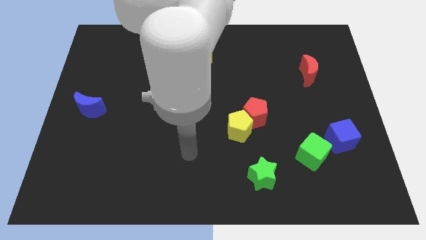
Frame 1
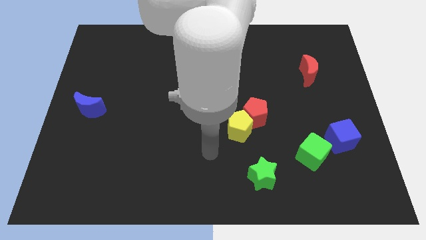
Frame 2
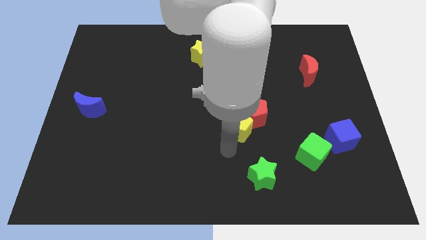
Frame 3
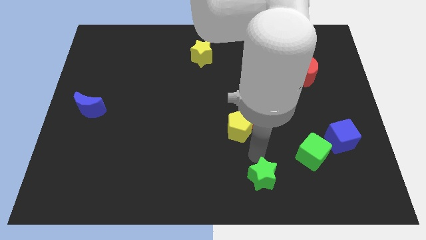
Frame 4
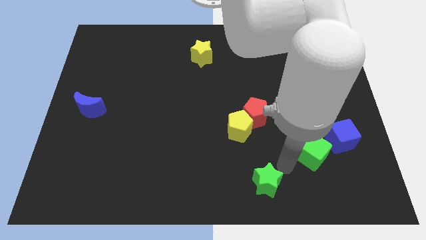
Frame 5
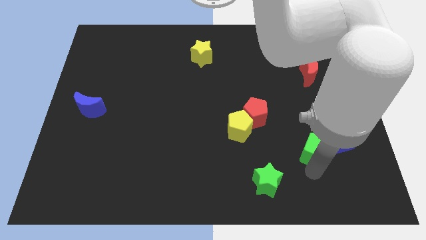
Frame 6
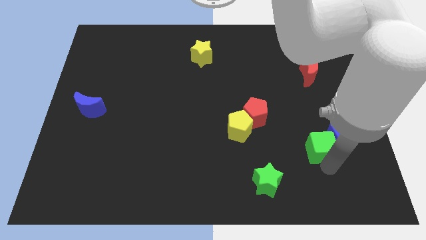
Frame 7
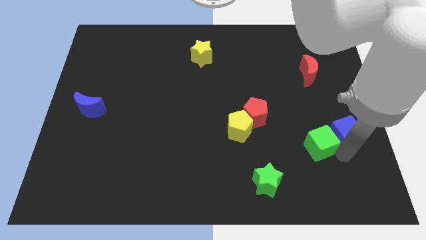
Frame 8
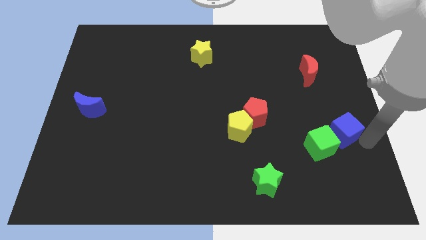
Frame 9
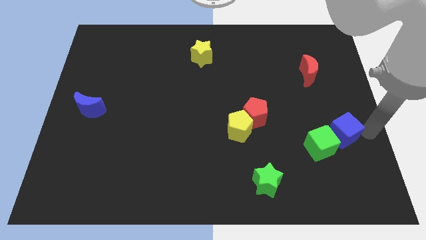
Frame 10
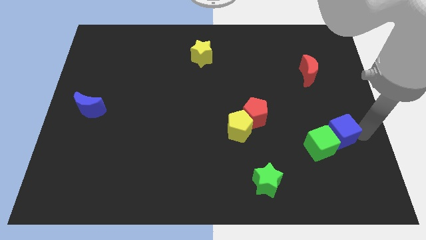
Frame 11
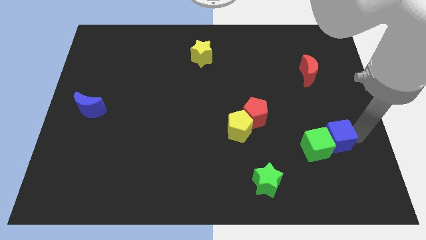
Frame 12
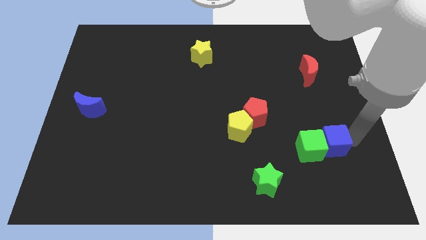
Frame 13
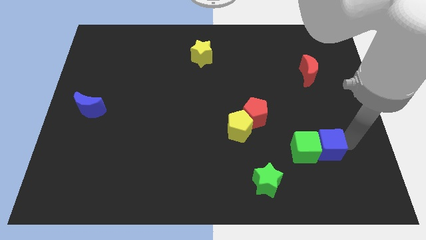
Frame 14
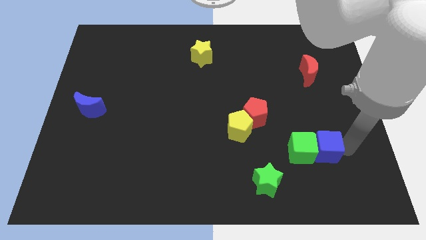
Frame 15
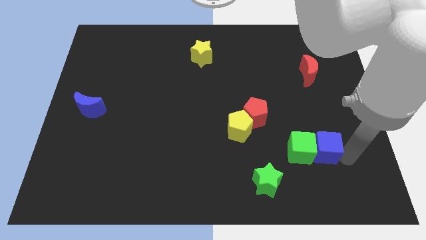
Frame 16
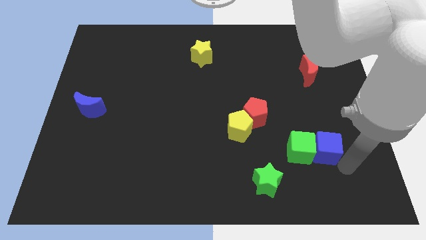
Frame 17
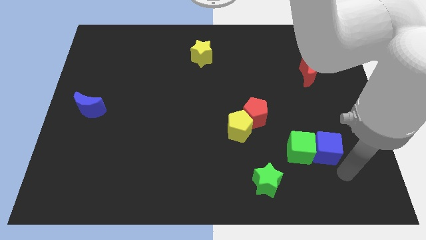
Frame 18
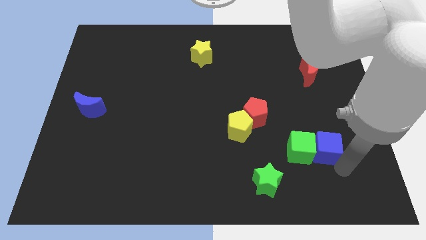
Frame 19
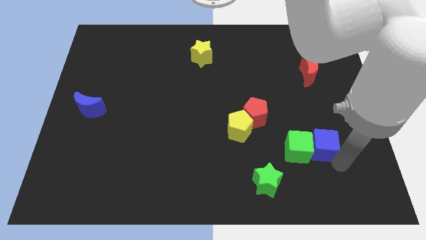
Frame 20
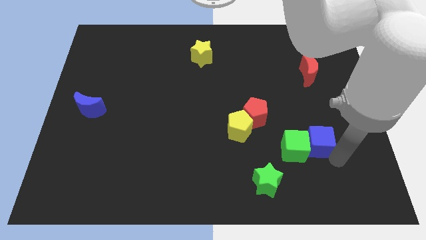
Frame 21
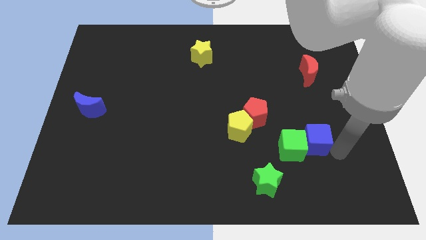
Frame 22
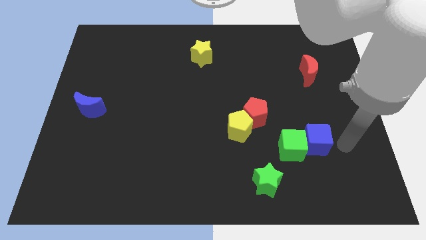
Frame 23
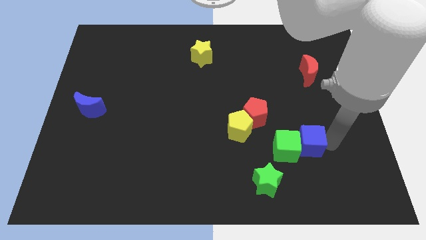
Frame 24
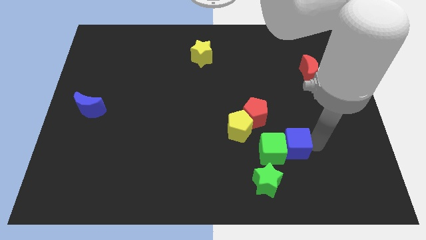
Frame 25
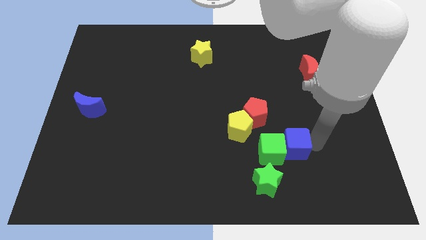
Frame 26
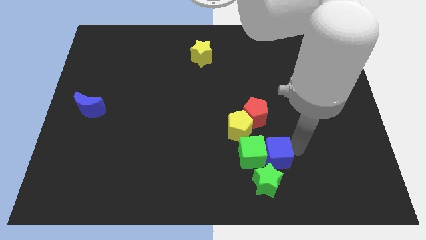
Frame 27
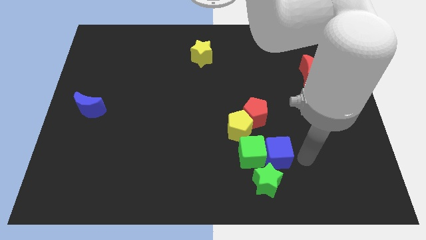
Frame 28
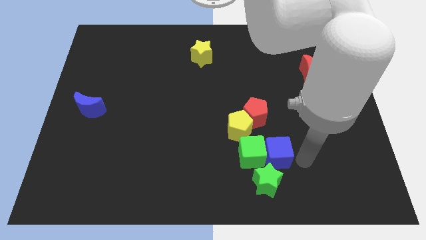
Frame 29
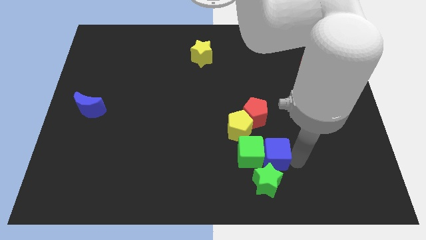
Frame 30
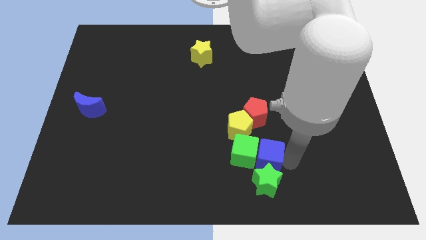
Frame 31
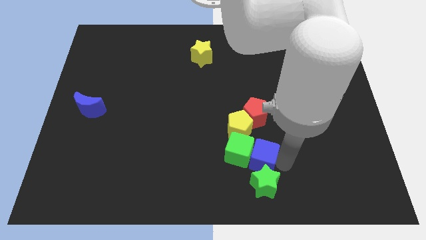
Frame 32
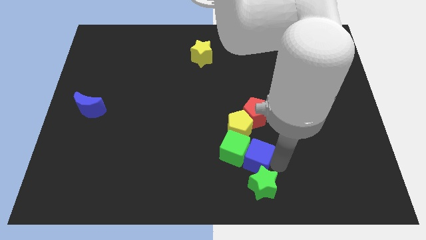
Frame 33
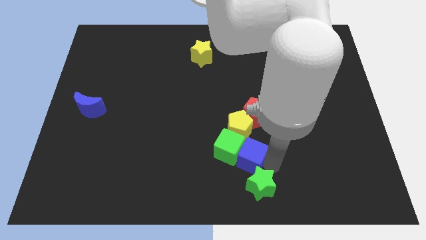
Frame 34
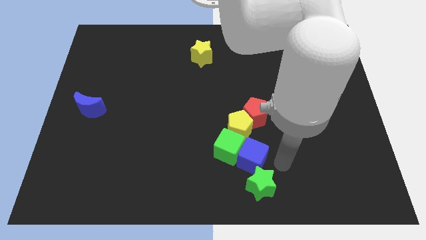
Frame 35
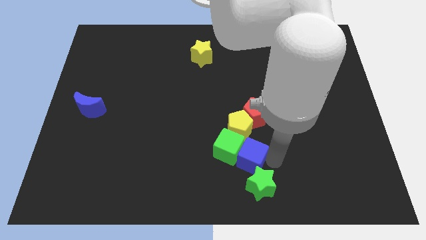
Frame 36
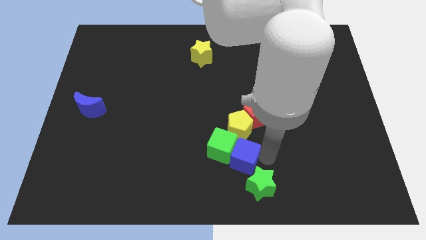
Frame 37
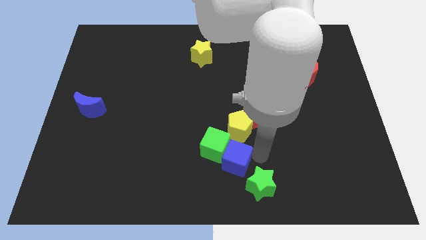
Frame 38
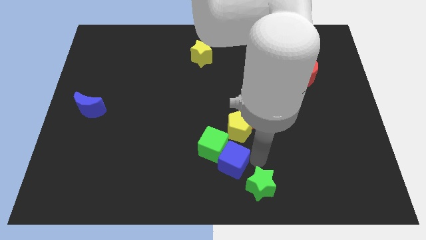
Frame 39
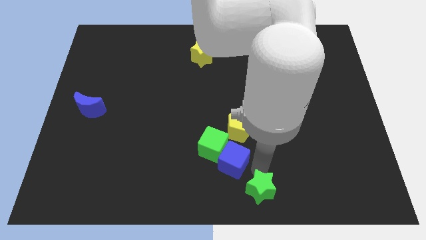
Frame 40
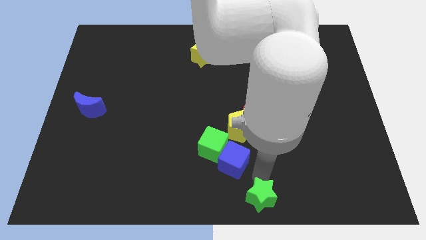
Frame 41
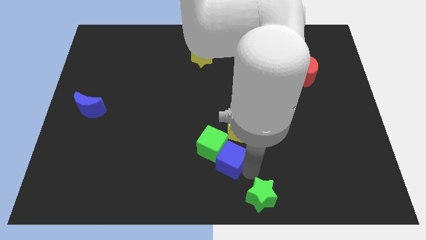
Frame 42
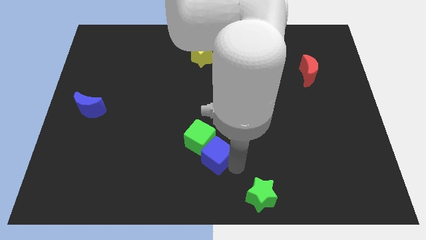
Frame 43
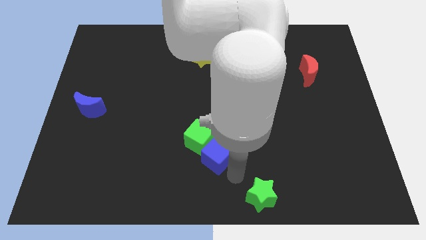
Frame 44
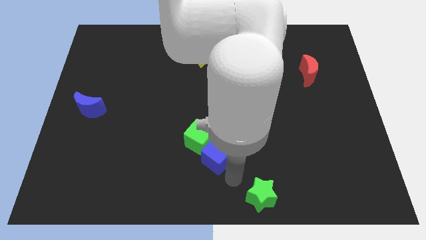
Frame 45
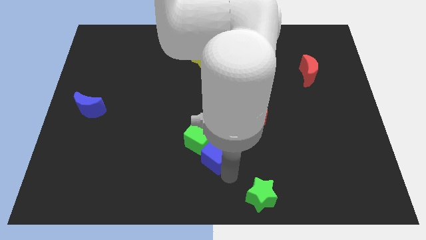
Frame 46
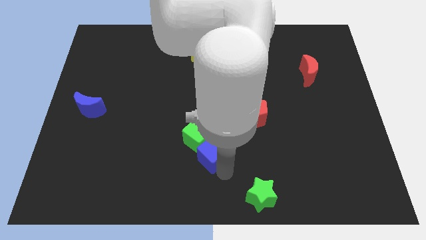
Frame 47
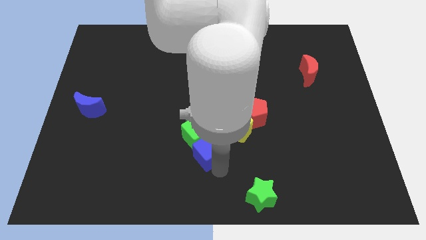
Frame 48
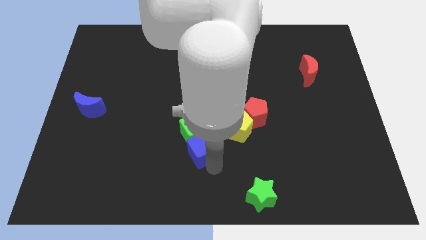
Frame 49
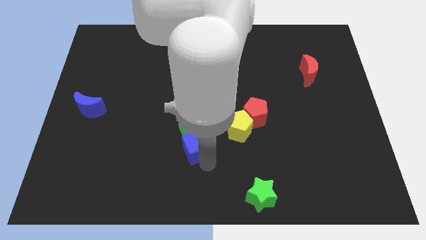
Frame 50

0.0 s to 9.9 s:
move the blue cube to the left side of the yellow pentagon

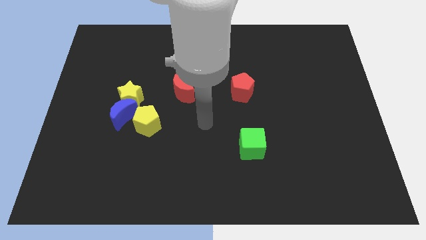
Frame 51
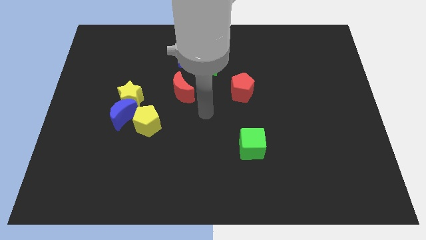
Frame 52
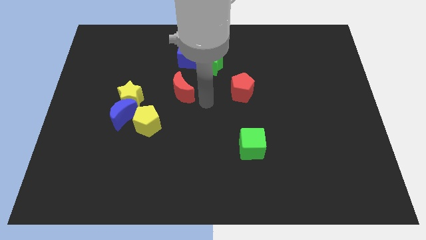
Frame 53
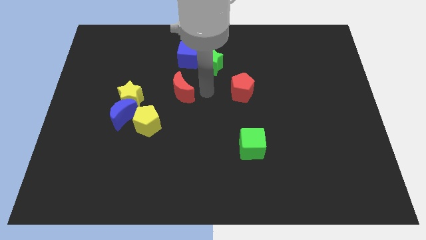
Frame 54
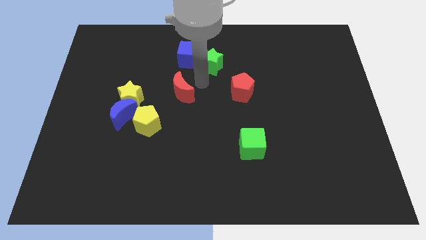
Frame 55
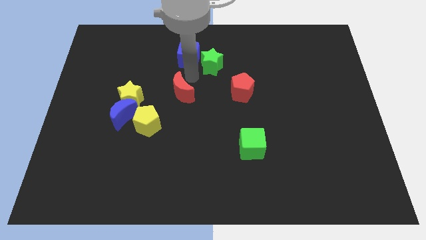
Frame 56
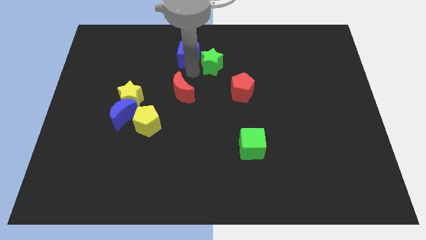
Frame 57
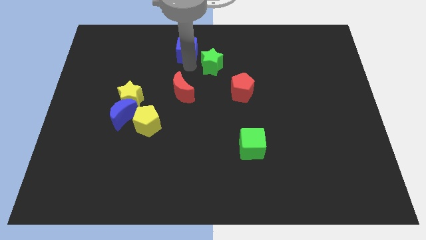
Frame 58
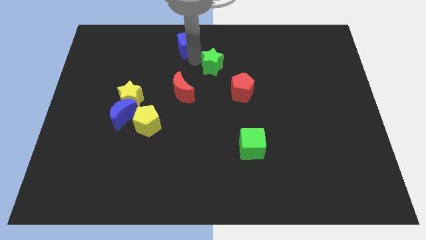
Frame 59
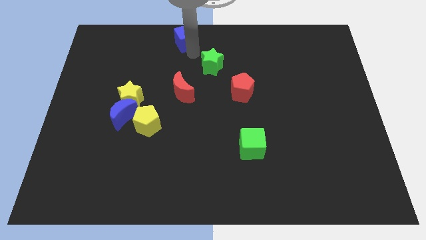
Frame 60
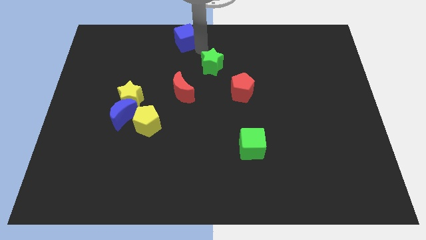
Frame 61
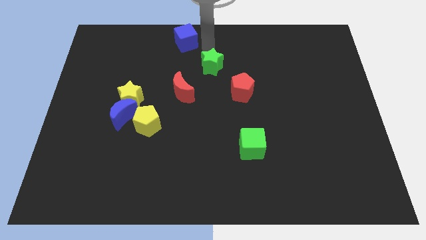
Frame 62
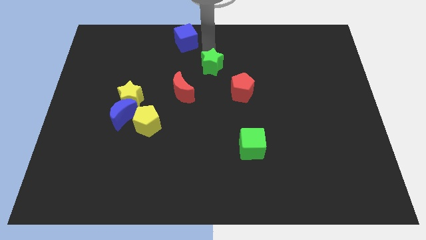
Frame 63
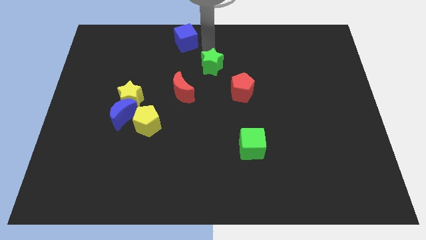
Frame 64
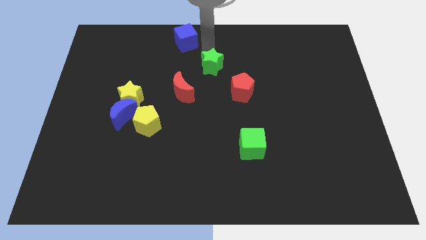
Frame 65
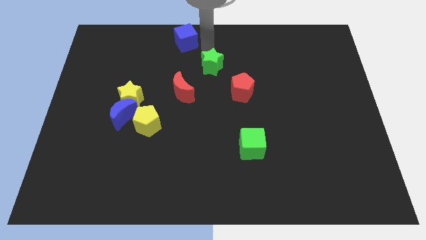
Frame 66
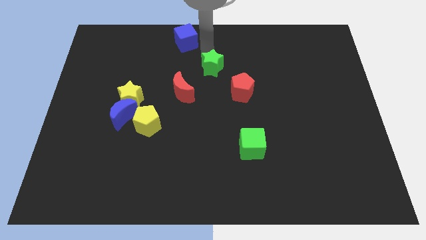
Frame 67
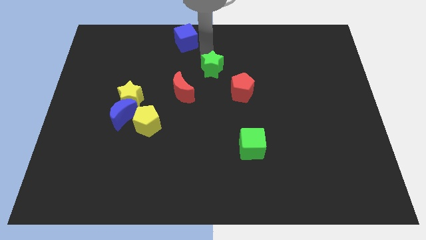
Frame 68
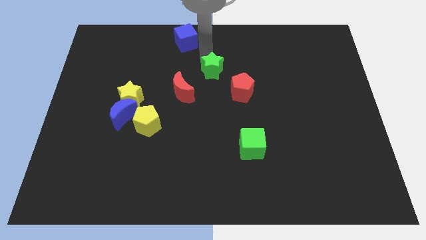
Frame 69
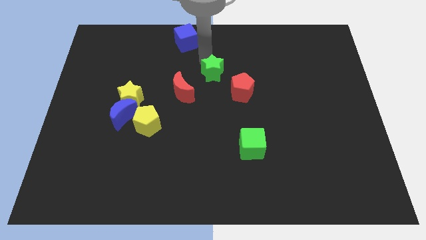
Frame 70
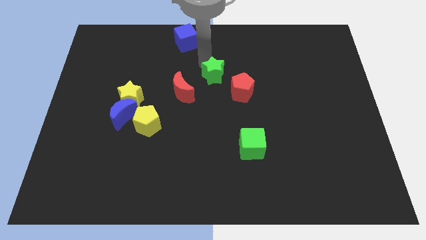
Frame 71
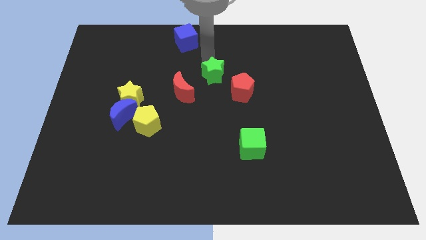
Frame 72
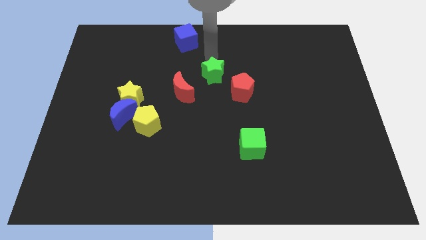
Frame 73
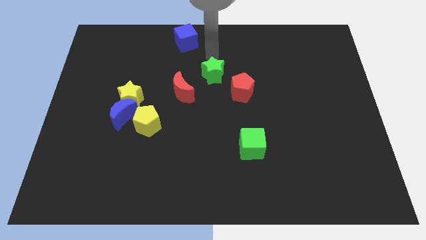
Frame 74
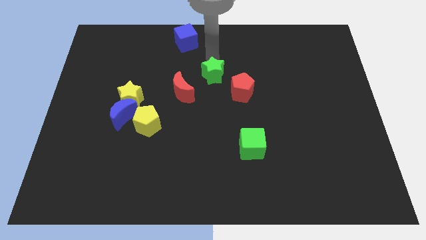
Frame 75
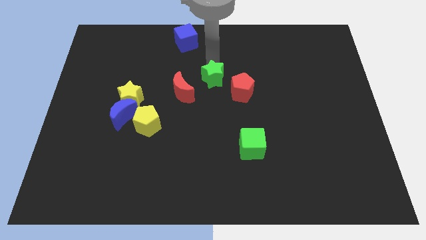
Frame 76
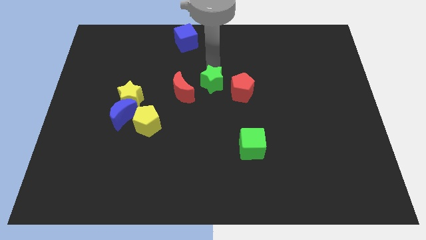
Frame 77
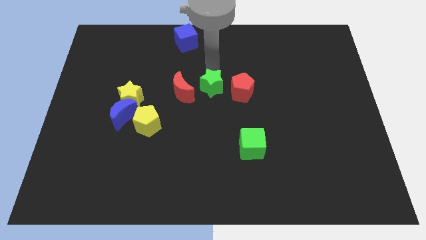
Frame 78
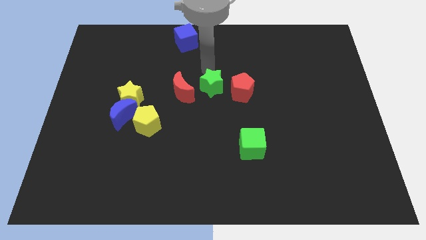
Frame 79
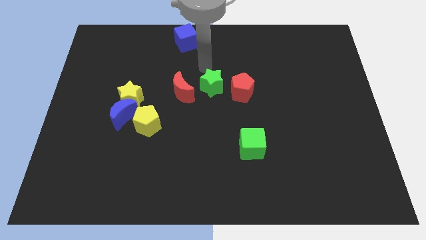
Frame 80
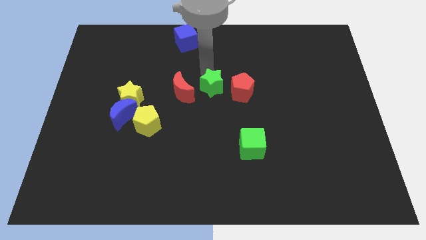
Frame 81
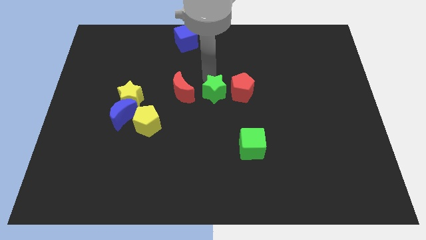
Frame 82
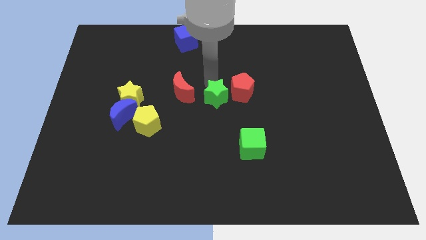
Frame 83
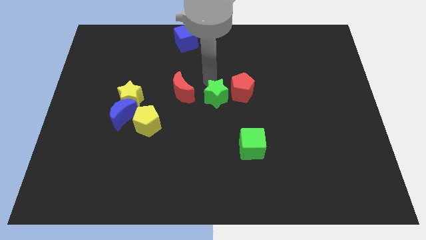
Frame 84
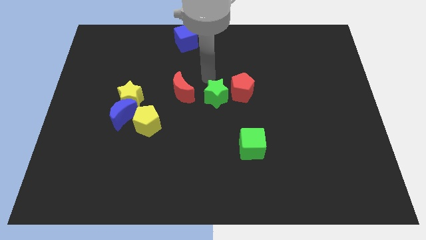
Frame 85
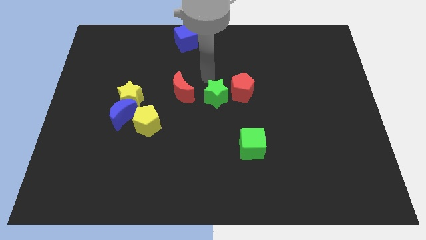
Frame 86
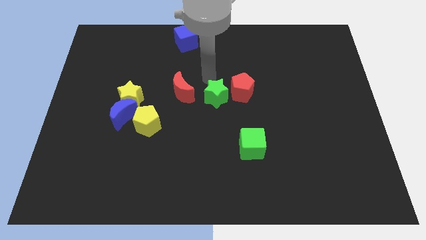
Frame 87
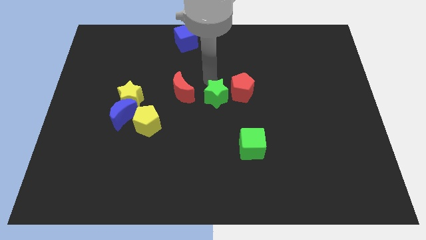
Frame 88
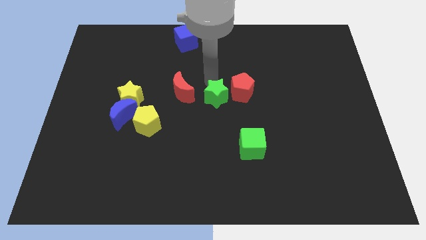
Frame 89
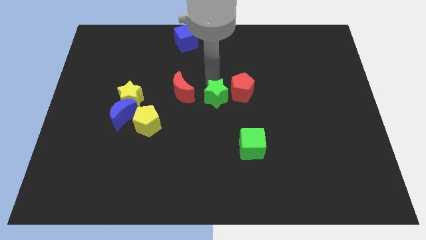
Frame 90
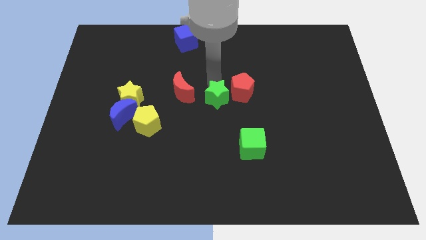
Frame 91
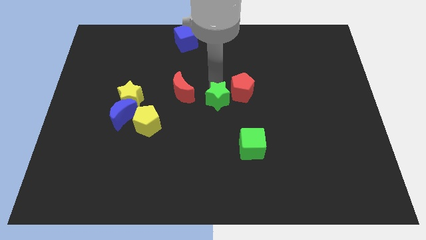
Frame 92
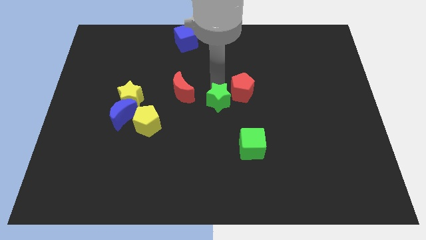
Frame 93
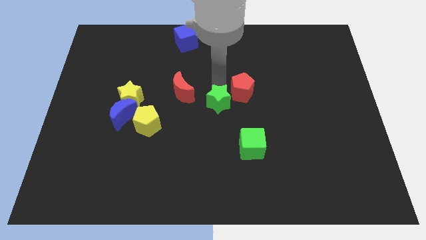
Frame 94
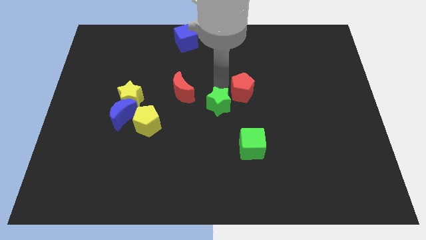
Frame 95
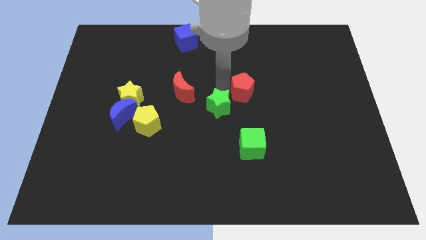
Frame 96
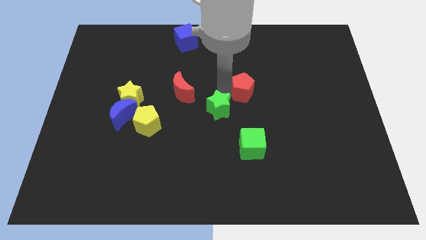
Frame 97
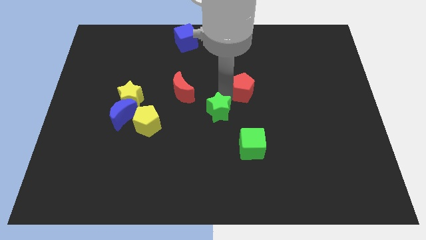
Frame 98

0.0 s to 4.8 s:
push the green star to the top left of the green cube
